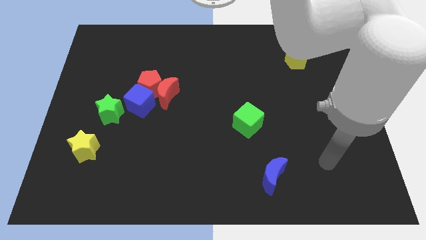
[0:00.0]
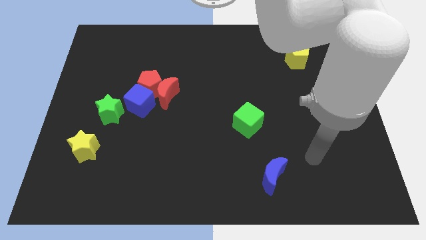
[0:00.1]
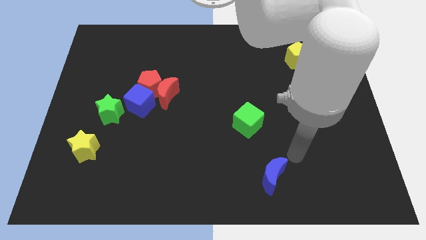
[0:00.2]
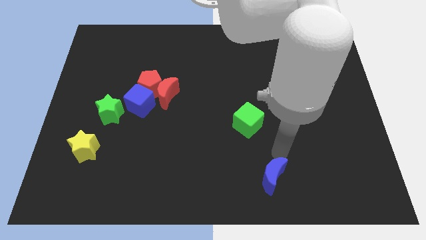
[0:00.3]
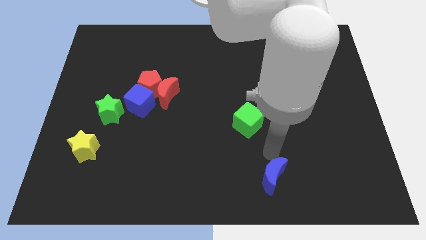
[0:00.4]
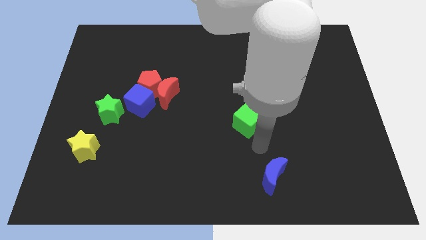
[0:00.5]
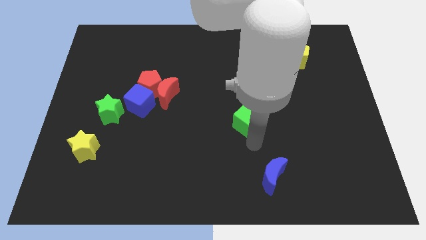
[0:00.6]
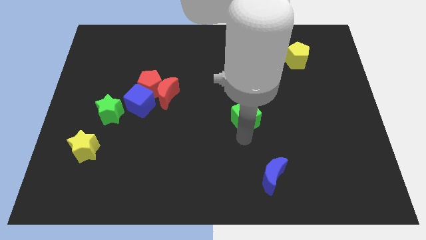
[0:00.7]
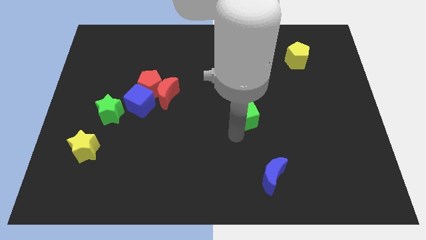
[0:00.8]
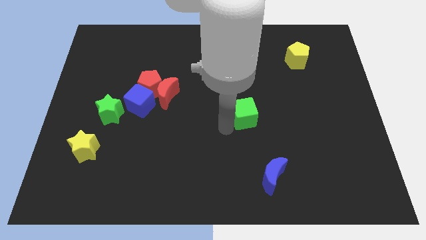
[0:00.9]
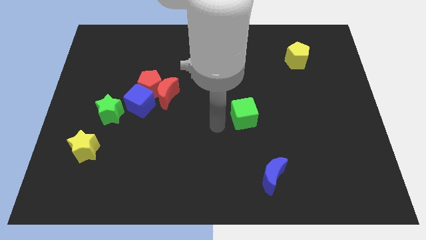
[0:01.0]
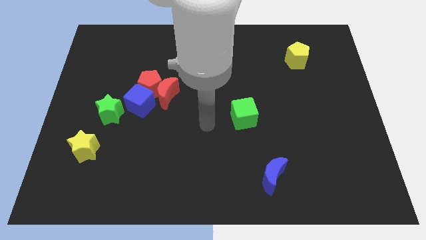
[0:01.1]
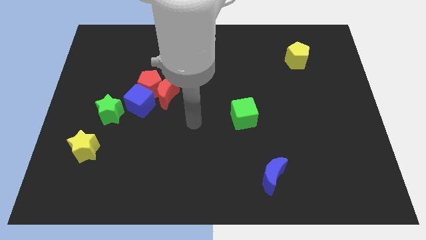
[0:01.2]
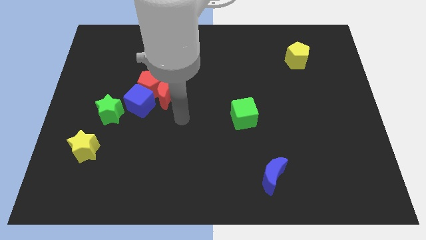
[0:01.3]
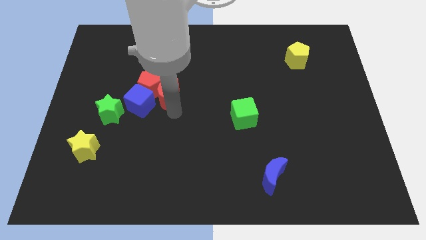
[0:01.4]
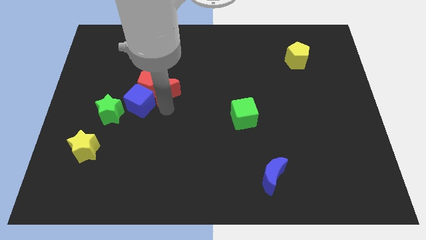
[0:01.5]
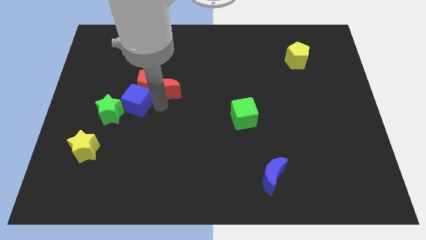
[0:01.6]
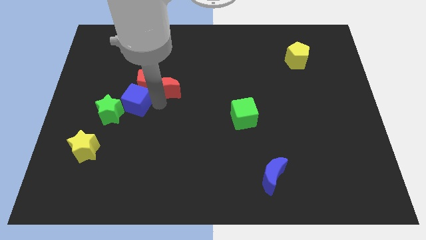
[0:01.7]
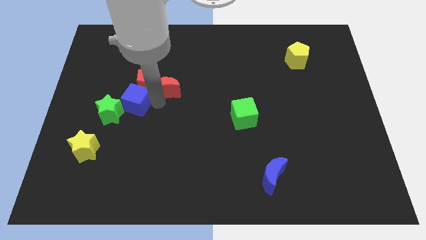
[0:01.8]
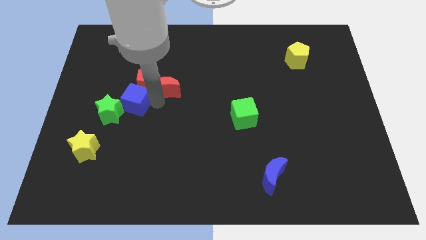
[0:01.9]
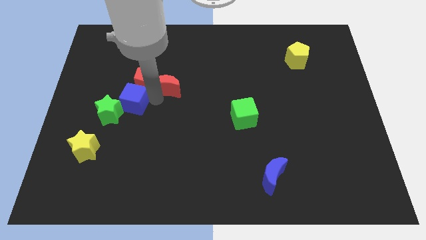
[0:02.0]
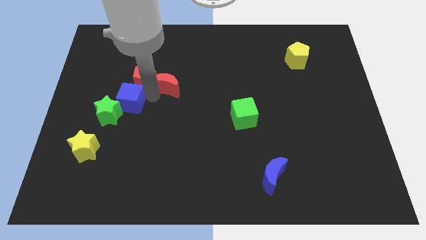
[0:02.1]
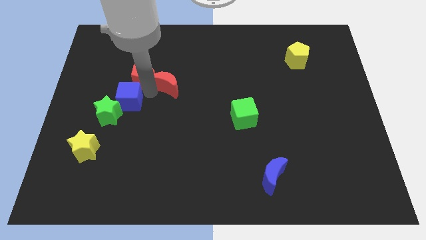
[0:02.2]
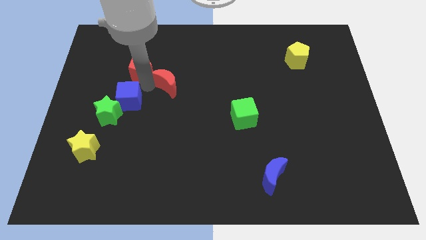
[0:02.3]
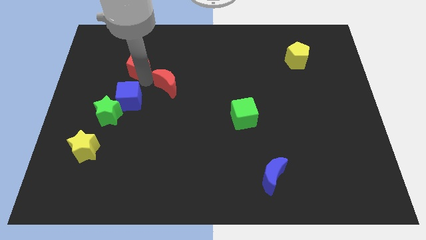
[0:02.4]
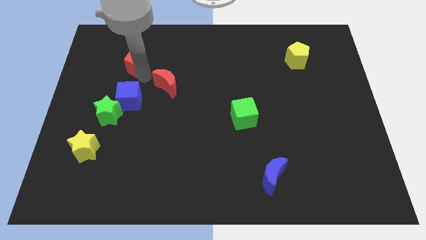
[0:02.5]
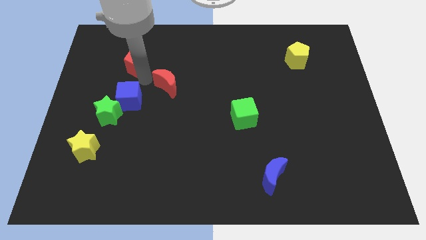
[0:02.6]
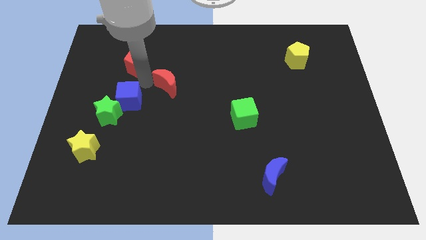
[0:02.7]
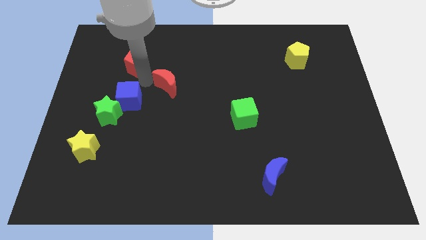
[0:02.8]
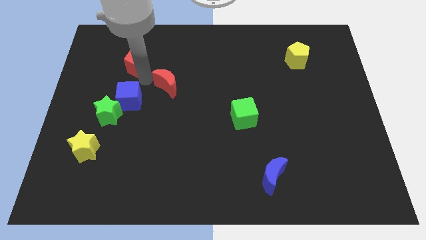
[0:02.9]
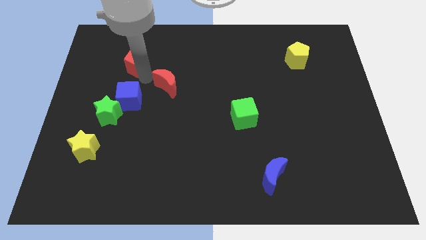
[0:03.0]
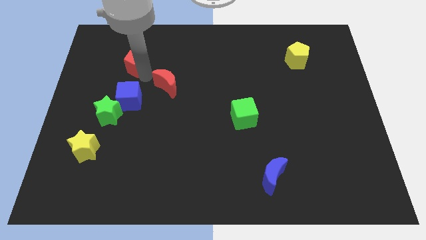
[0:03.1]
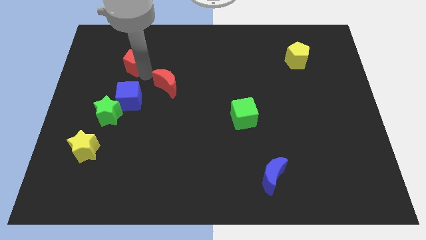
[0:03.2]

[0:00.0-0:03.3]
separate the red pentagon from the red moon and blue cube

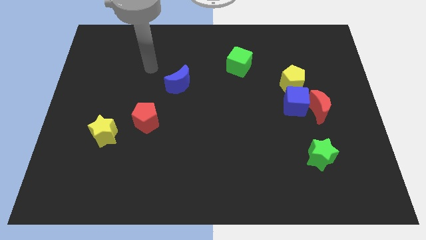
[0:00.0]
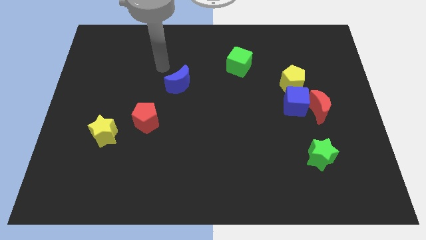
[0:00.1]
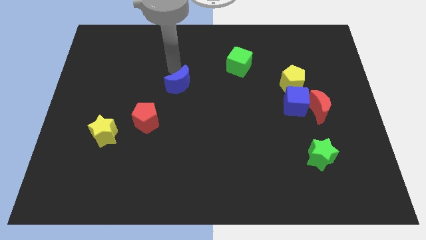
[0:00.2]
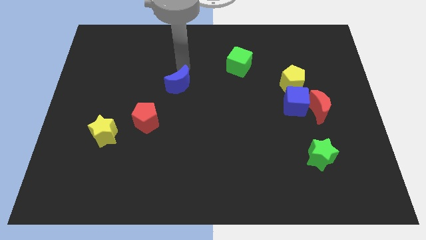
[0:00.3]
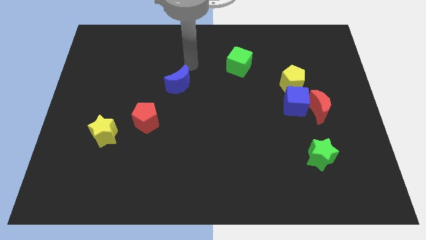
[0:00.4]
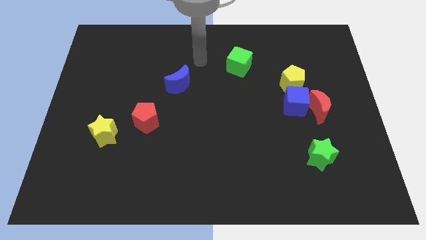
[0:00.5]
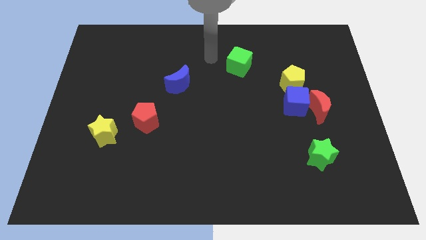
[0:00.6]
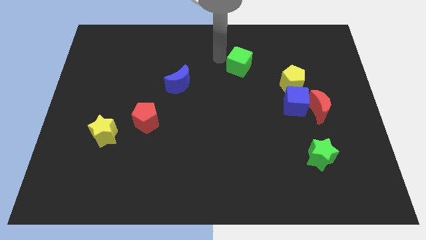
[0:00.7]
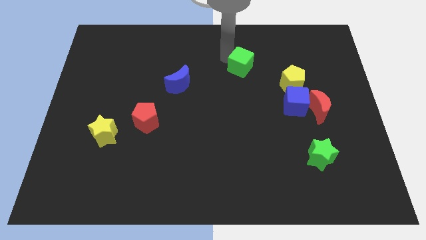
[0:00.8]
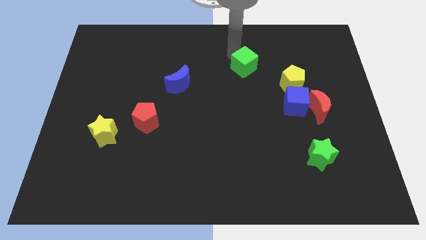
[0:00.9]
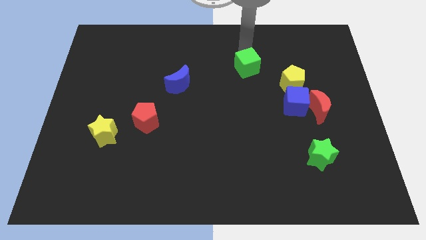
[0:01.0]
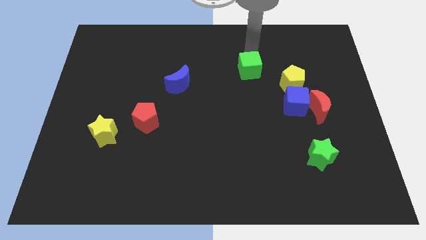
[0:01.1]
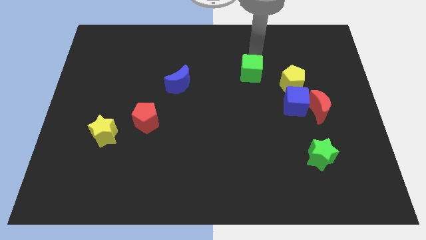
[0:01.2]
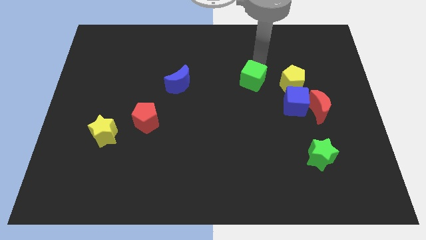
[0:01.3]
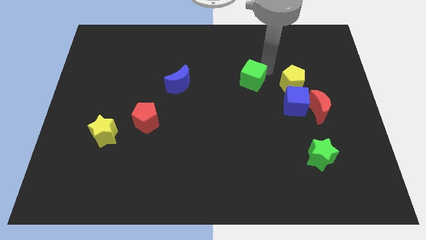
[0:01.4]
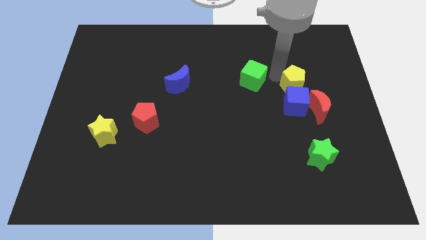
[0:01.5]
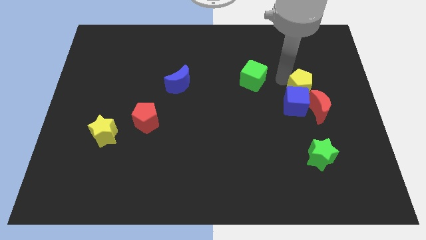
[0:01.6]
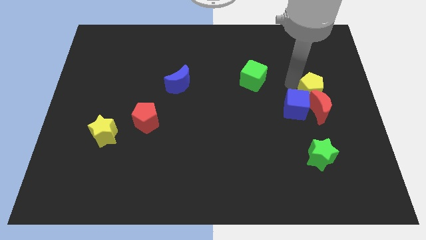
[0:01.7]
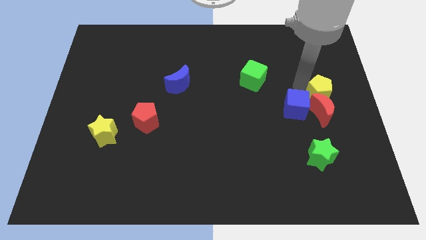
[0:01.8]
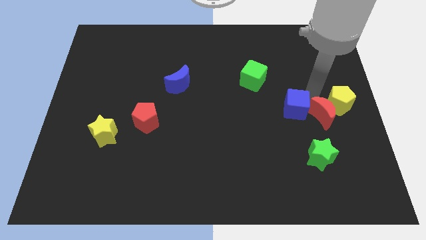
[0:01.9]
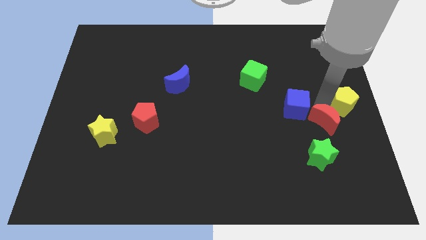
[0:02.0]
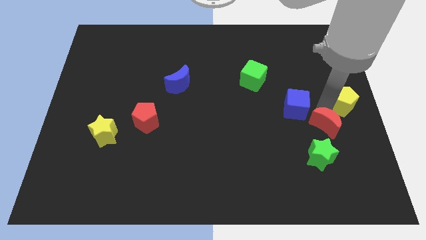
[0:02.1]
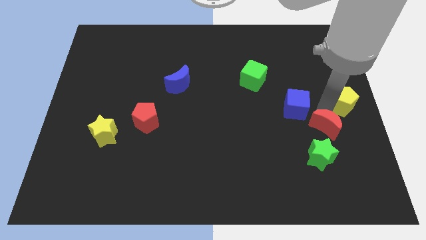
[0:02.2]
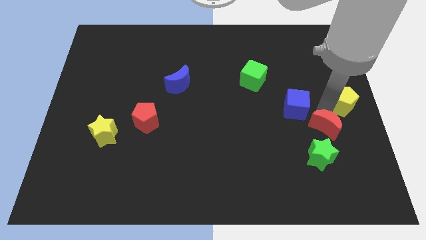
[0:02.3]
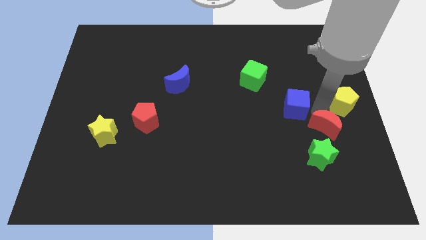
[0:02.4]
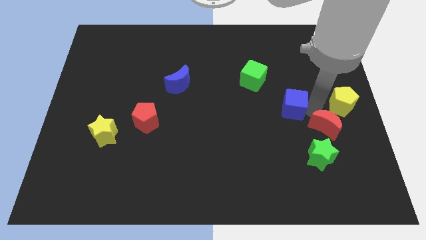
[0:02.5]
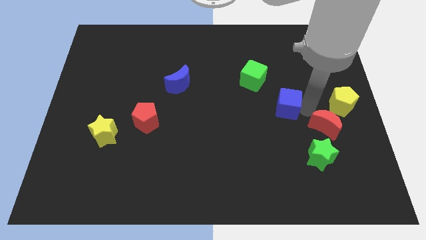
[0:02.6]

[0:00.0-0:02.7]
pull the blue cube apart from the red moon and yellow pentagon

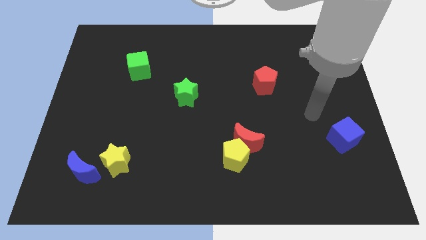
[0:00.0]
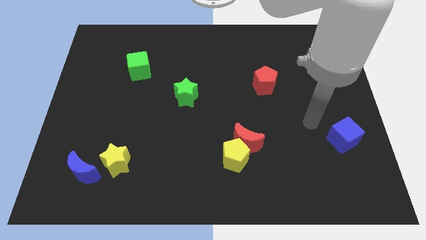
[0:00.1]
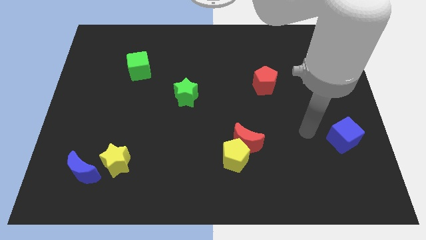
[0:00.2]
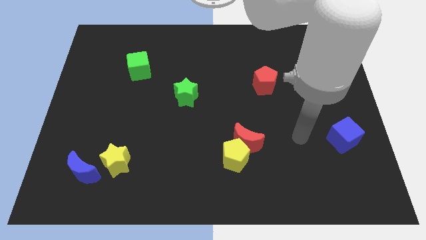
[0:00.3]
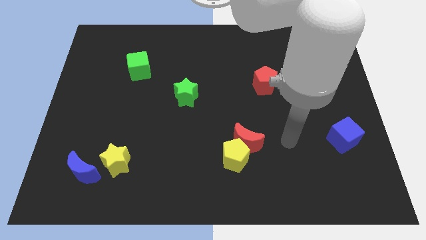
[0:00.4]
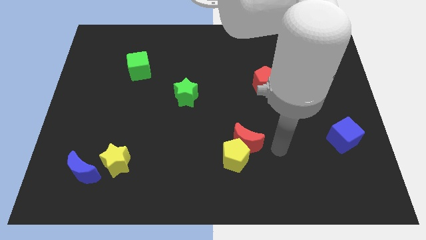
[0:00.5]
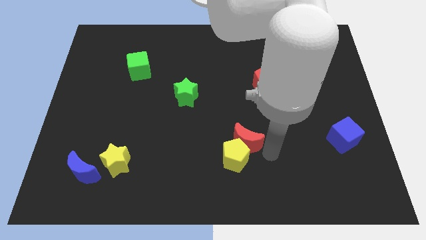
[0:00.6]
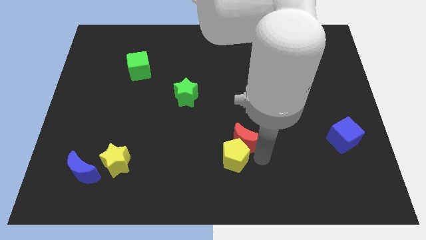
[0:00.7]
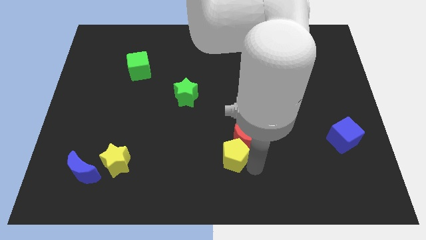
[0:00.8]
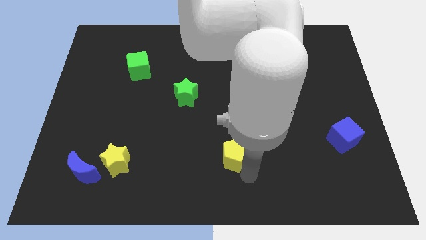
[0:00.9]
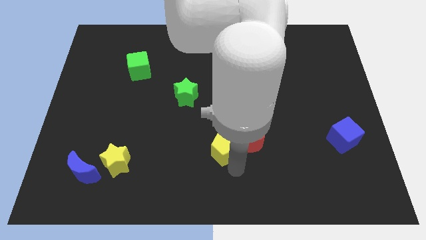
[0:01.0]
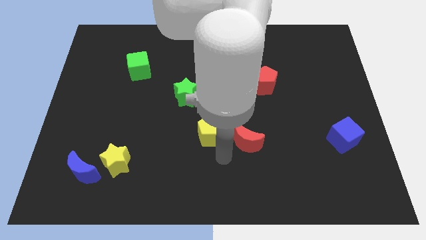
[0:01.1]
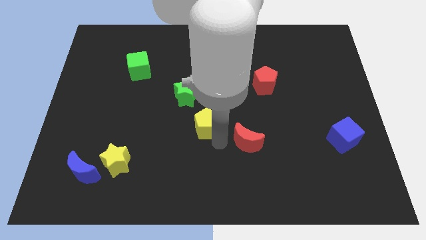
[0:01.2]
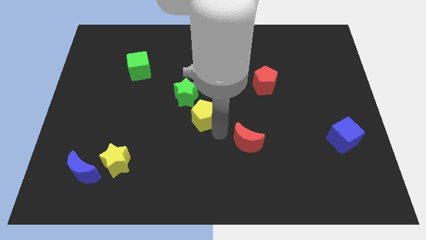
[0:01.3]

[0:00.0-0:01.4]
separate the red moon from the yellow pentagon

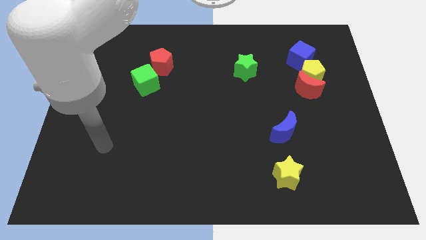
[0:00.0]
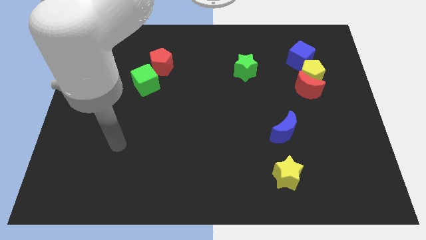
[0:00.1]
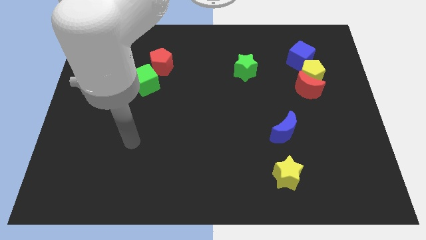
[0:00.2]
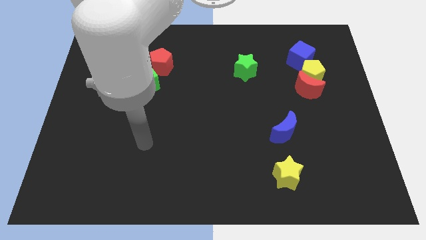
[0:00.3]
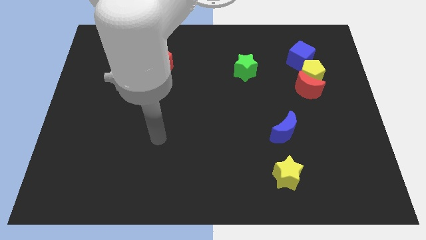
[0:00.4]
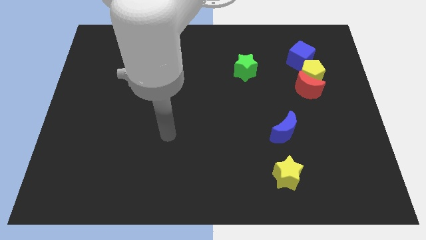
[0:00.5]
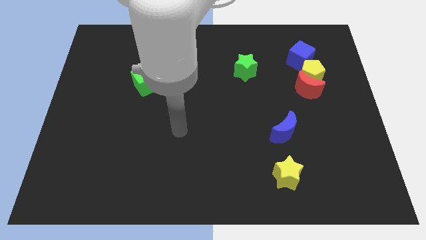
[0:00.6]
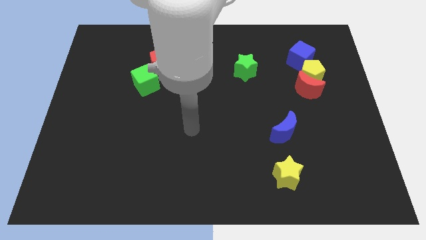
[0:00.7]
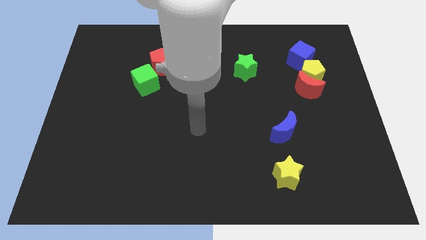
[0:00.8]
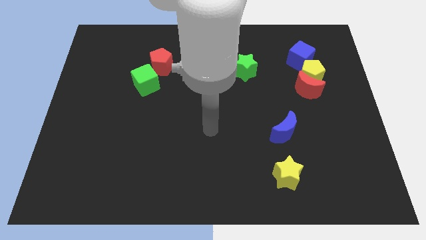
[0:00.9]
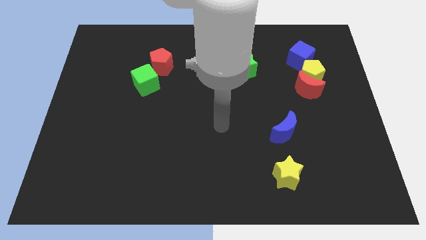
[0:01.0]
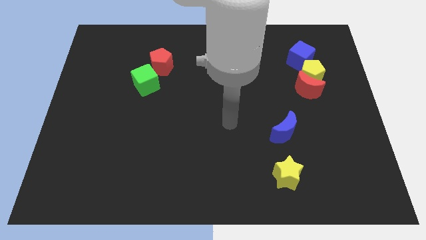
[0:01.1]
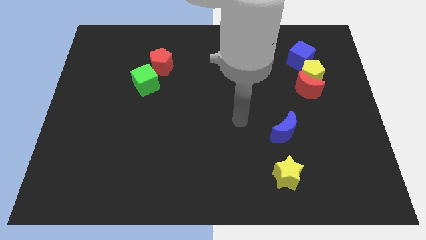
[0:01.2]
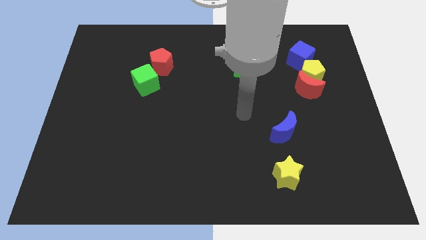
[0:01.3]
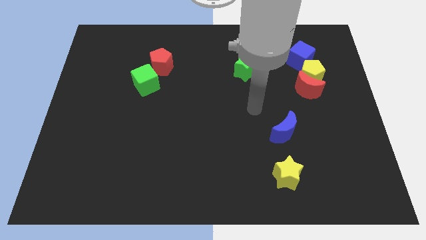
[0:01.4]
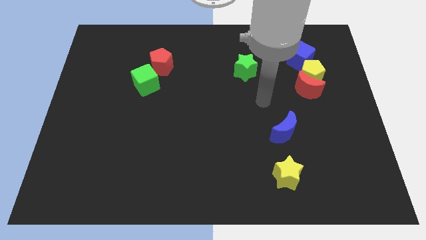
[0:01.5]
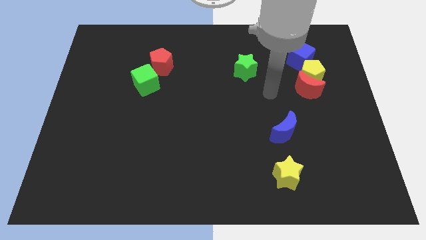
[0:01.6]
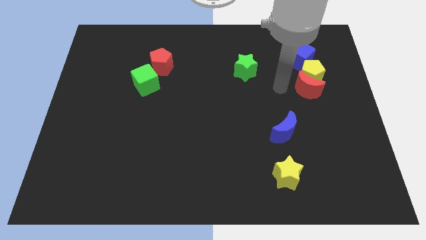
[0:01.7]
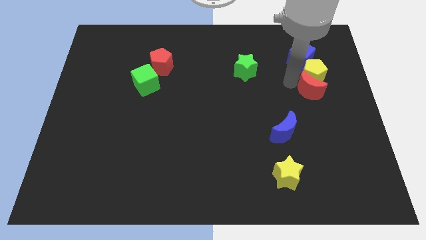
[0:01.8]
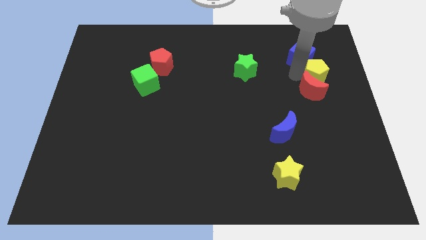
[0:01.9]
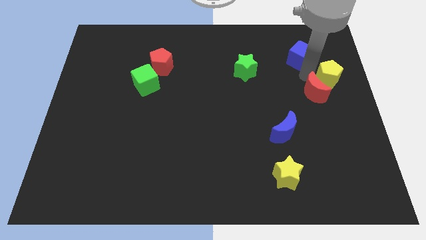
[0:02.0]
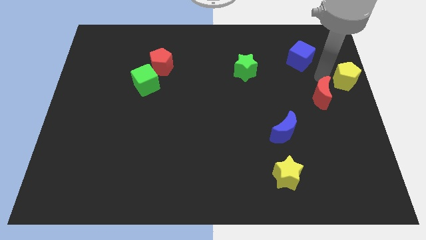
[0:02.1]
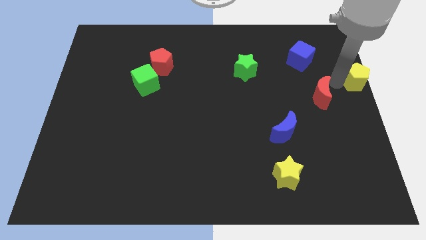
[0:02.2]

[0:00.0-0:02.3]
pull the red moon apart from the yellow pentagon
